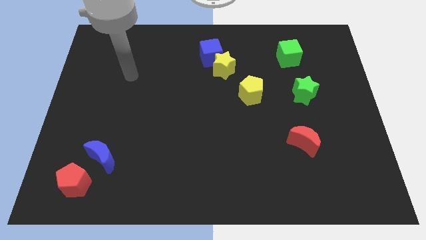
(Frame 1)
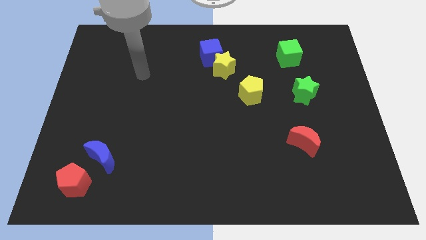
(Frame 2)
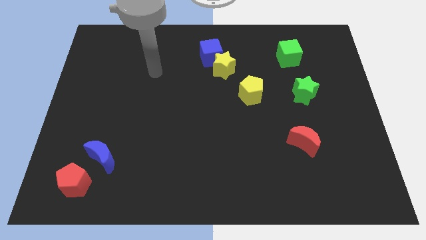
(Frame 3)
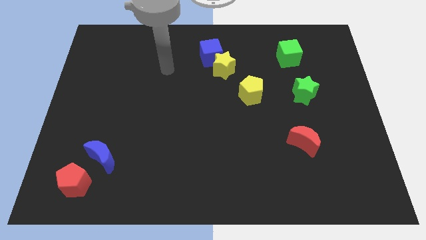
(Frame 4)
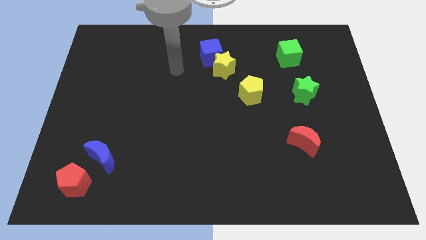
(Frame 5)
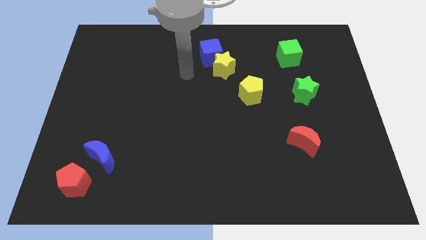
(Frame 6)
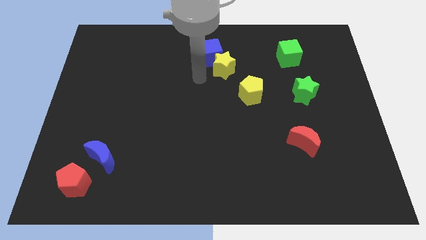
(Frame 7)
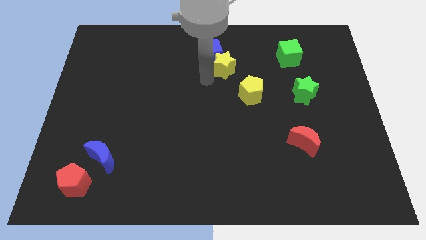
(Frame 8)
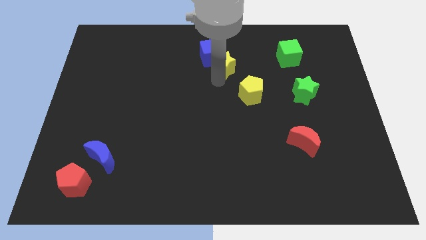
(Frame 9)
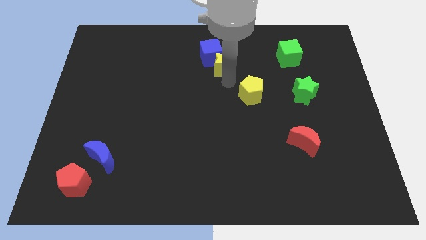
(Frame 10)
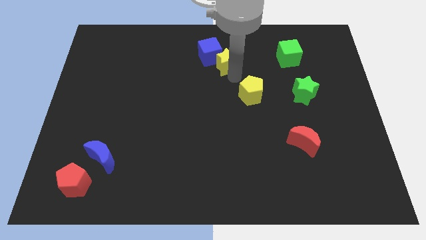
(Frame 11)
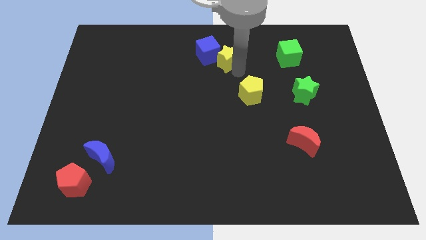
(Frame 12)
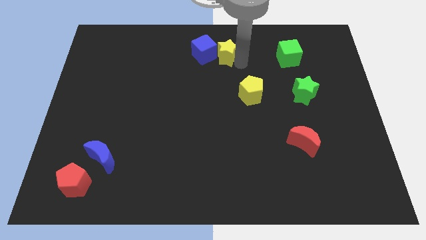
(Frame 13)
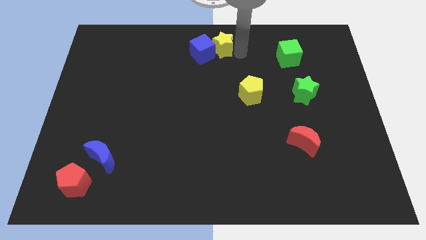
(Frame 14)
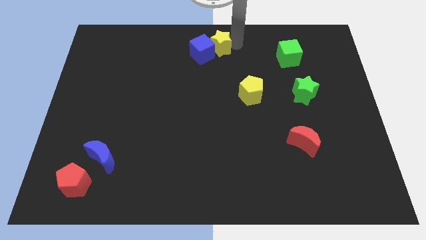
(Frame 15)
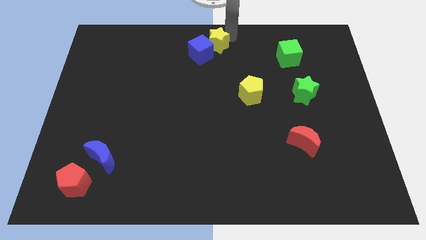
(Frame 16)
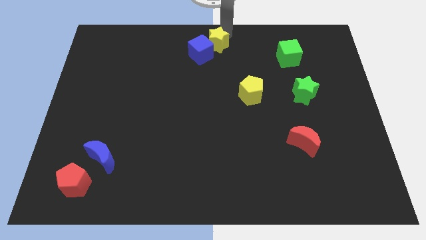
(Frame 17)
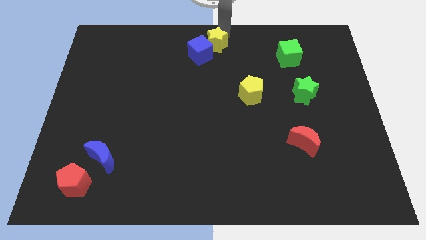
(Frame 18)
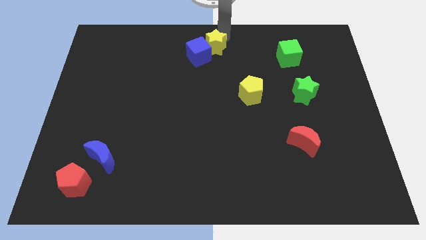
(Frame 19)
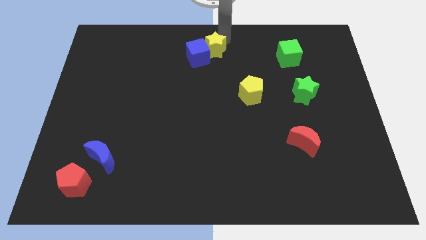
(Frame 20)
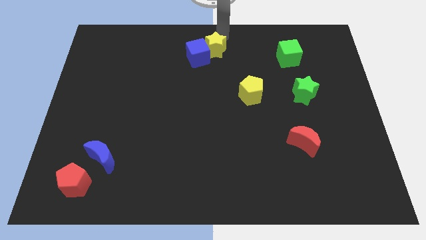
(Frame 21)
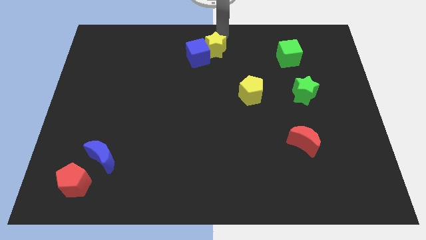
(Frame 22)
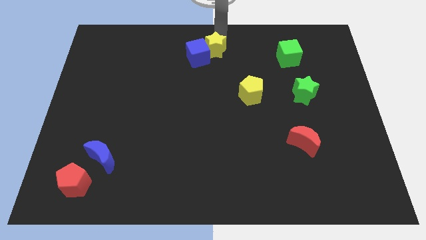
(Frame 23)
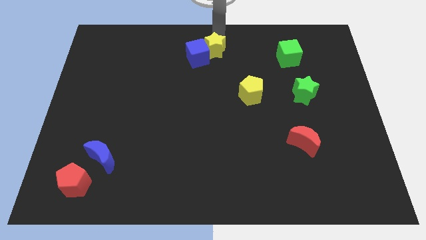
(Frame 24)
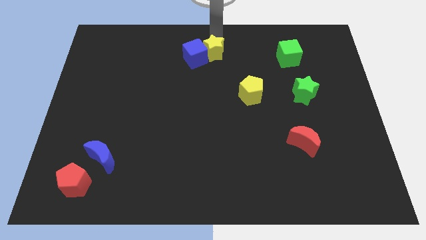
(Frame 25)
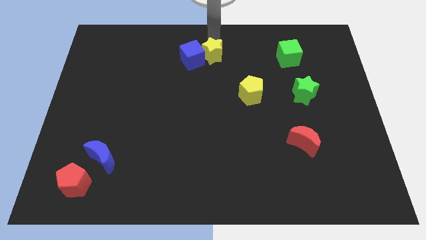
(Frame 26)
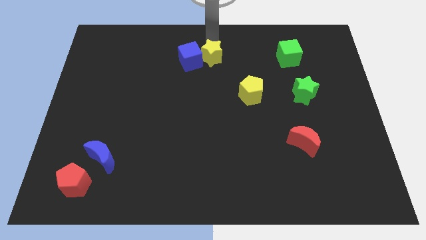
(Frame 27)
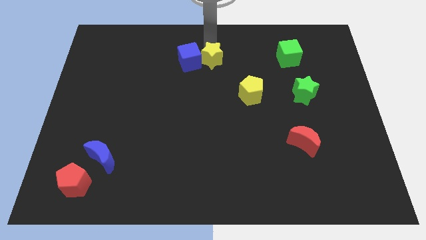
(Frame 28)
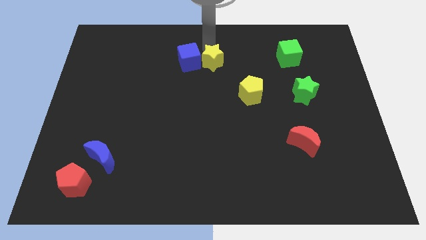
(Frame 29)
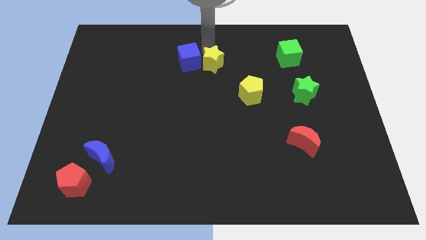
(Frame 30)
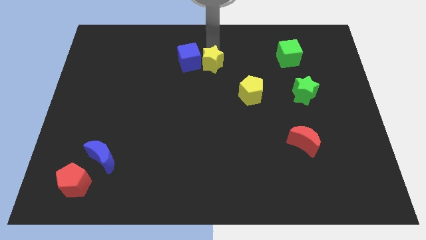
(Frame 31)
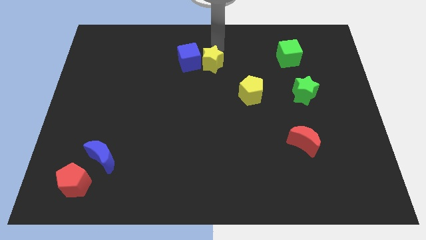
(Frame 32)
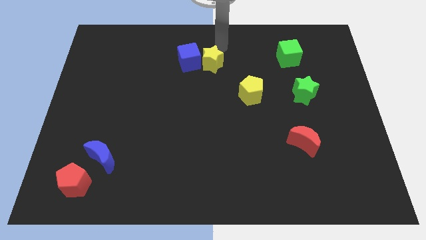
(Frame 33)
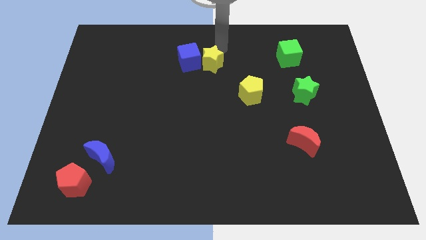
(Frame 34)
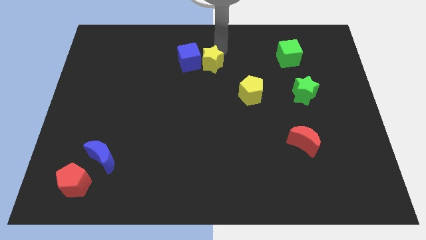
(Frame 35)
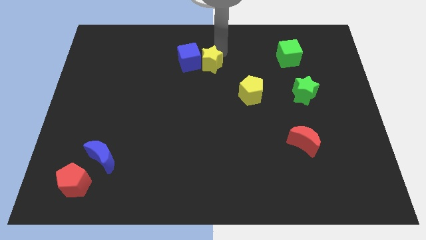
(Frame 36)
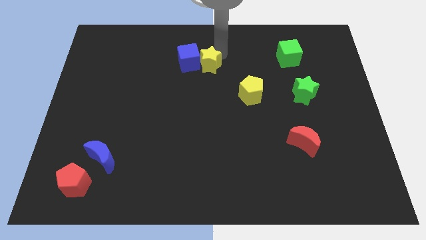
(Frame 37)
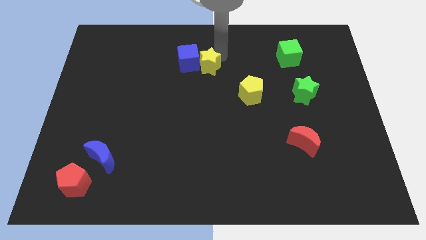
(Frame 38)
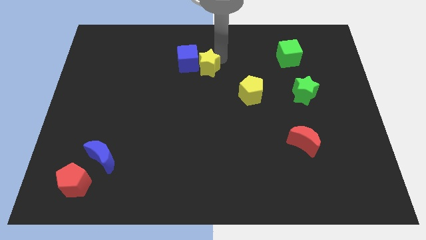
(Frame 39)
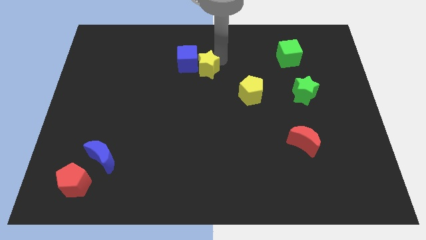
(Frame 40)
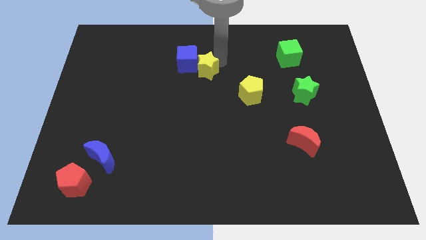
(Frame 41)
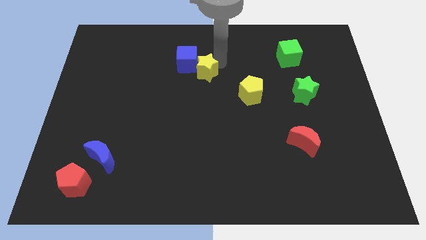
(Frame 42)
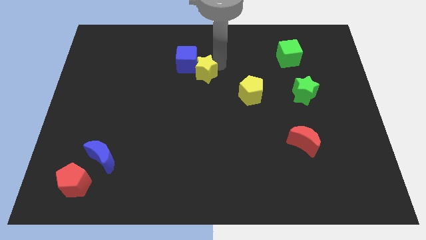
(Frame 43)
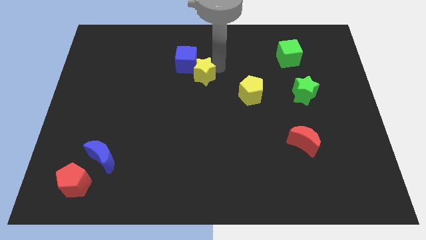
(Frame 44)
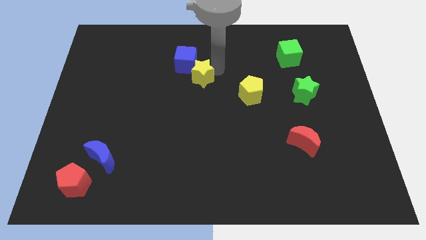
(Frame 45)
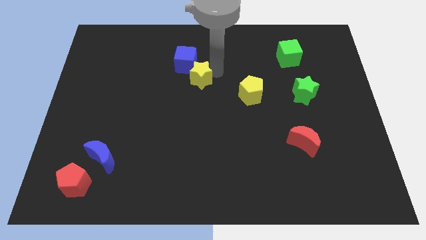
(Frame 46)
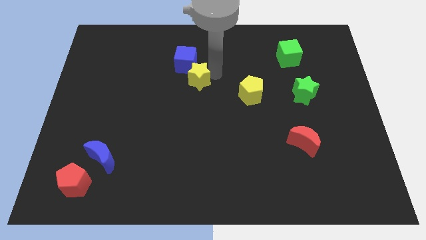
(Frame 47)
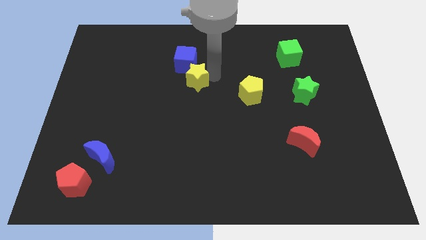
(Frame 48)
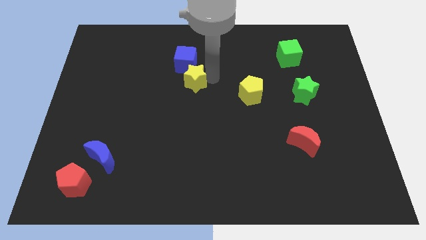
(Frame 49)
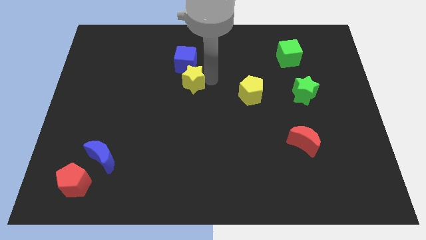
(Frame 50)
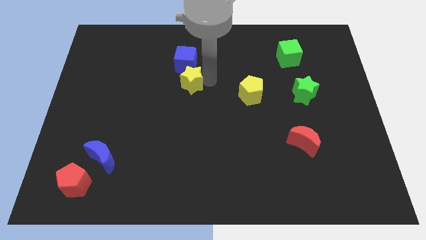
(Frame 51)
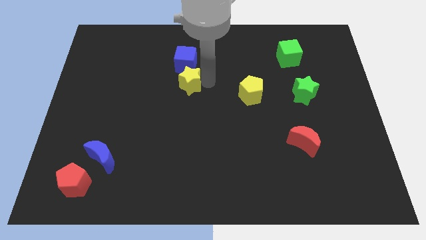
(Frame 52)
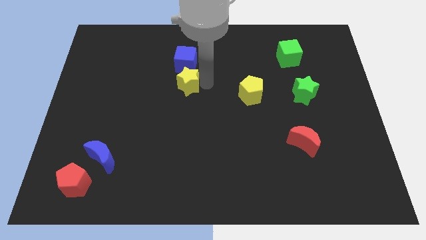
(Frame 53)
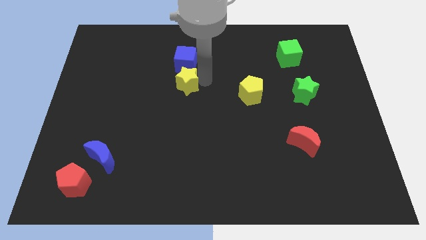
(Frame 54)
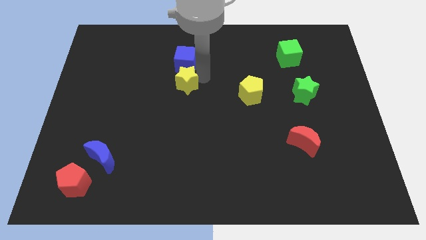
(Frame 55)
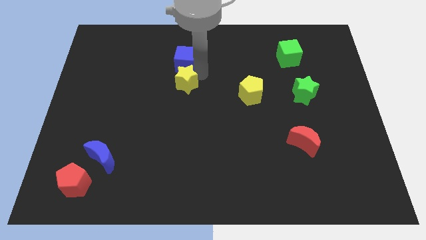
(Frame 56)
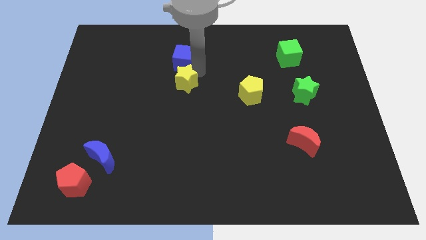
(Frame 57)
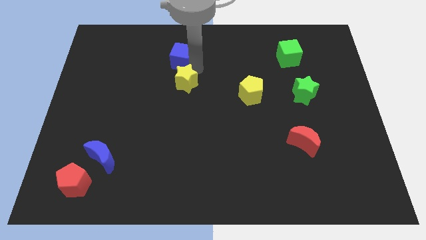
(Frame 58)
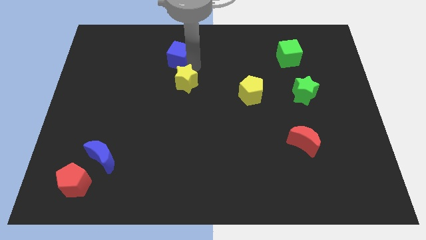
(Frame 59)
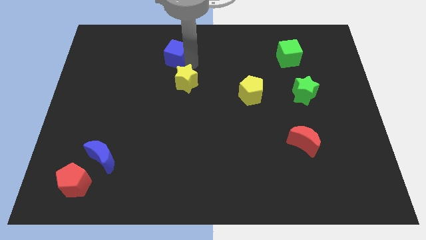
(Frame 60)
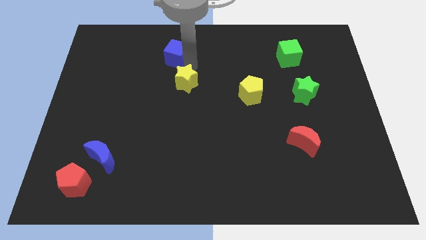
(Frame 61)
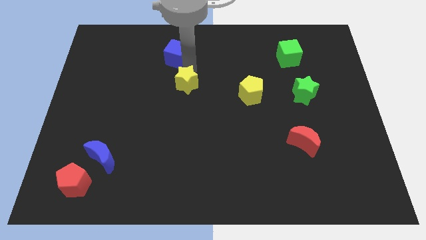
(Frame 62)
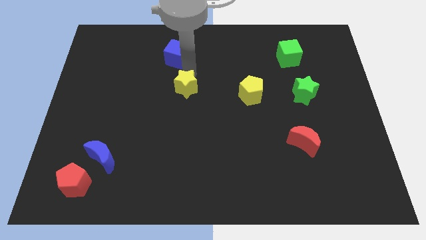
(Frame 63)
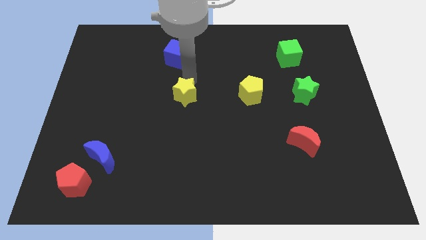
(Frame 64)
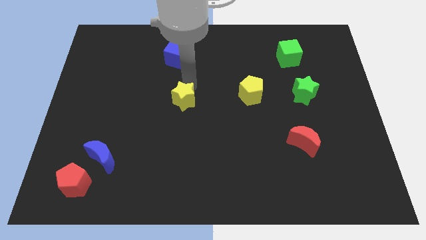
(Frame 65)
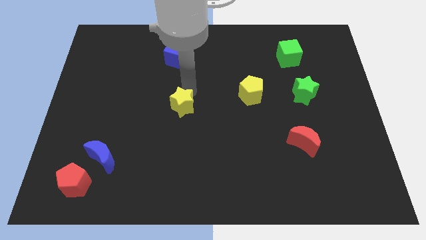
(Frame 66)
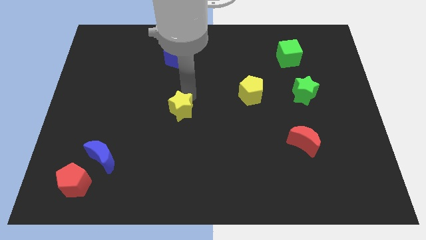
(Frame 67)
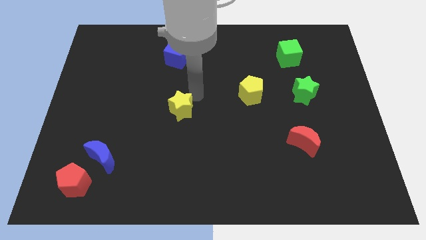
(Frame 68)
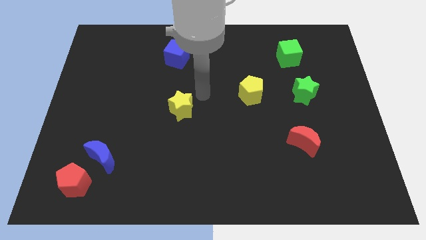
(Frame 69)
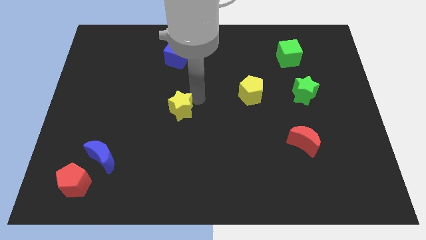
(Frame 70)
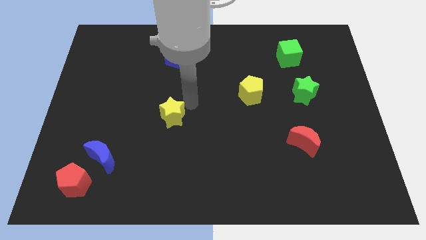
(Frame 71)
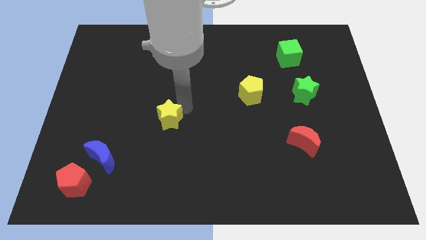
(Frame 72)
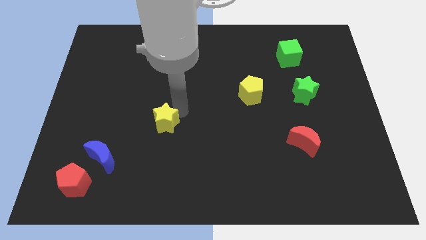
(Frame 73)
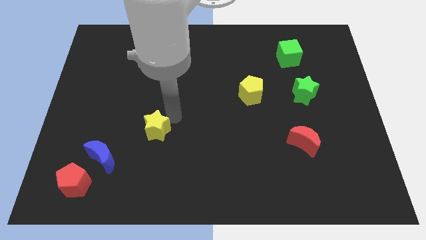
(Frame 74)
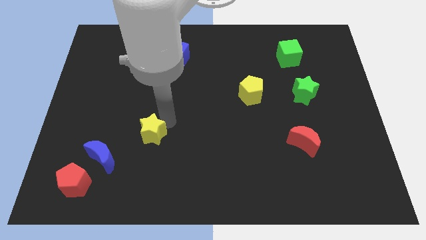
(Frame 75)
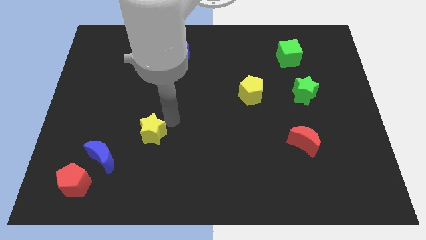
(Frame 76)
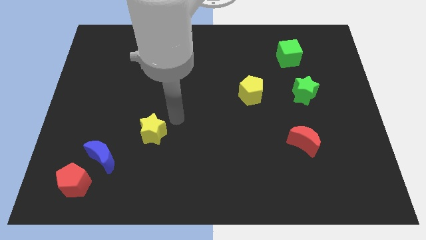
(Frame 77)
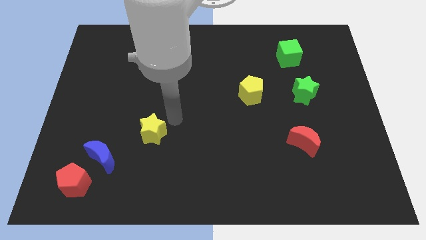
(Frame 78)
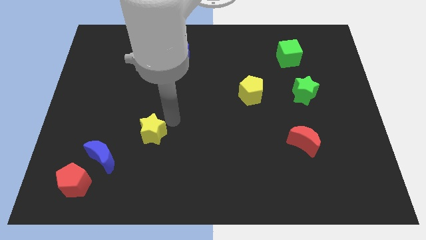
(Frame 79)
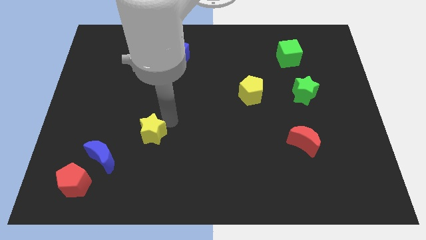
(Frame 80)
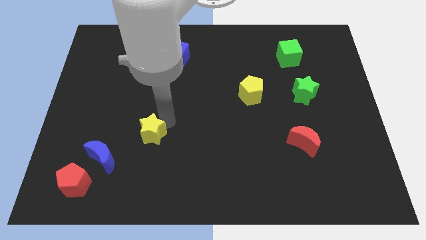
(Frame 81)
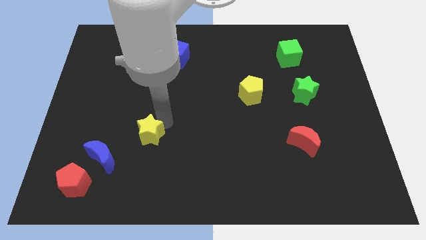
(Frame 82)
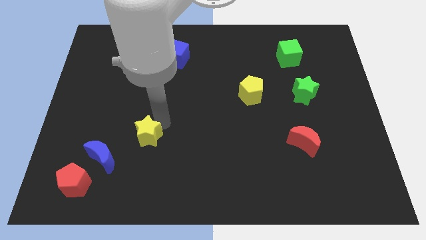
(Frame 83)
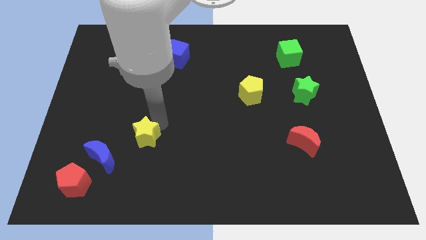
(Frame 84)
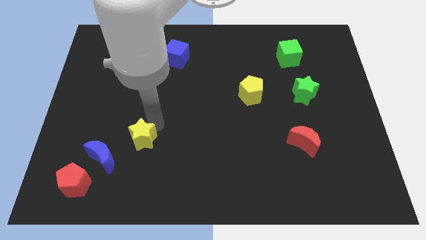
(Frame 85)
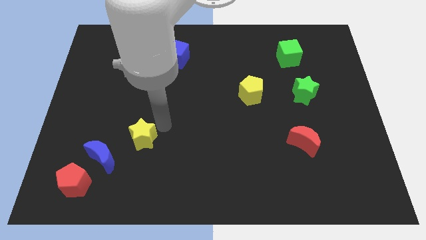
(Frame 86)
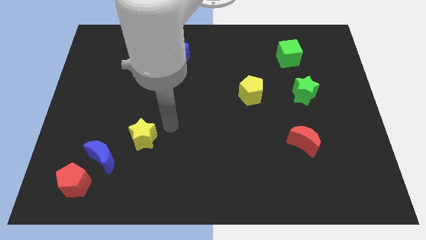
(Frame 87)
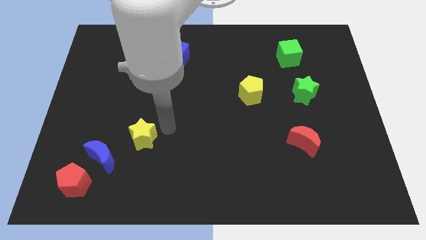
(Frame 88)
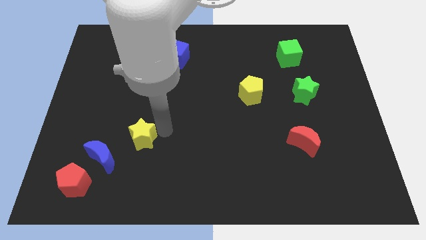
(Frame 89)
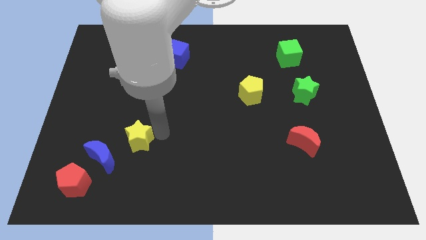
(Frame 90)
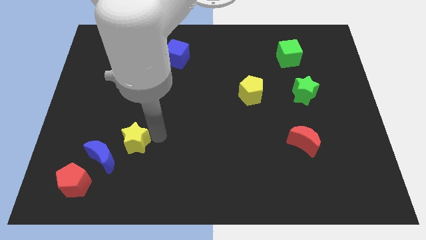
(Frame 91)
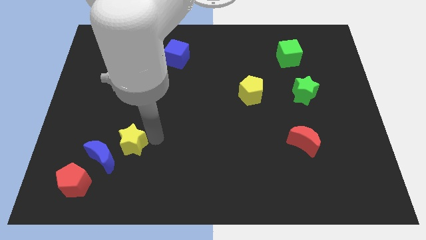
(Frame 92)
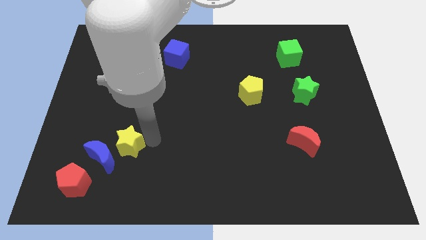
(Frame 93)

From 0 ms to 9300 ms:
slide the yellow star close to the blue moon
